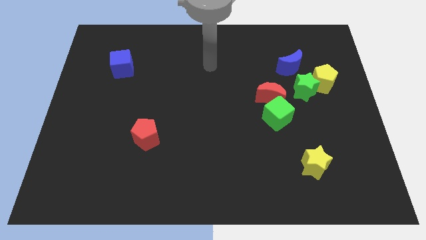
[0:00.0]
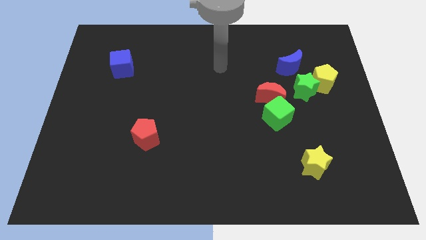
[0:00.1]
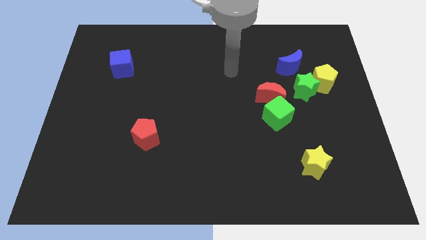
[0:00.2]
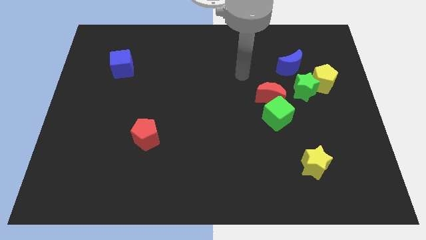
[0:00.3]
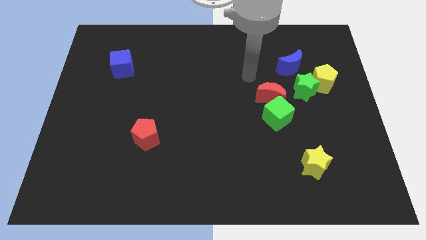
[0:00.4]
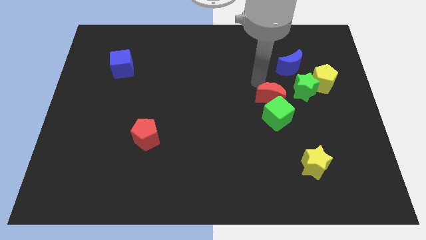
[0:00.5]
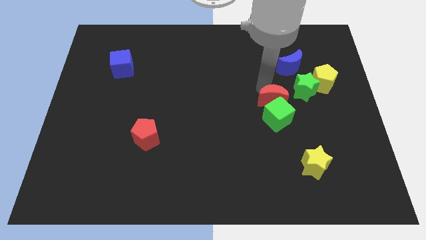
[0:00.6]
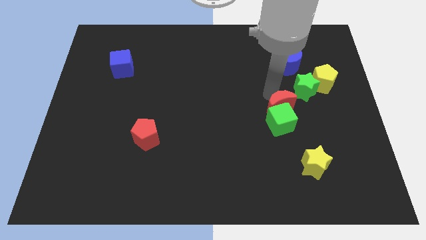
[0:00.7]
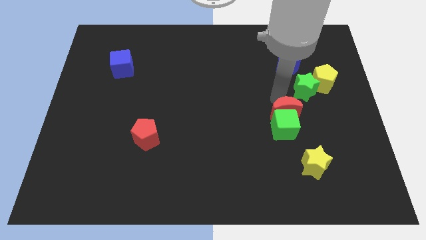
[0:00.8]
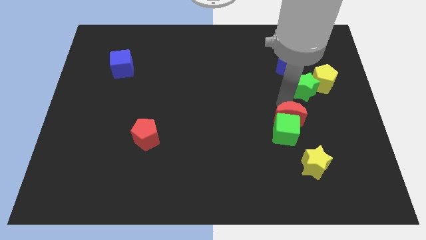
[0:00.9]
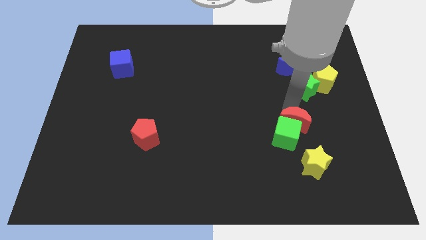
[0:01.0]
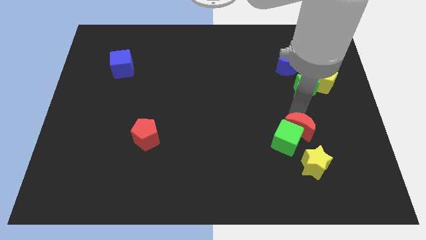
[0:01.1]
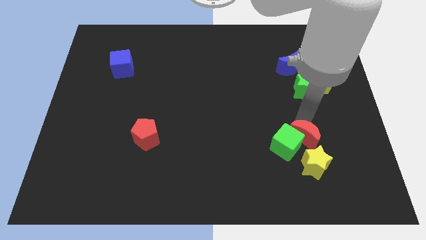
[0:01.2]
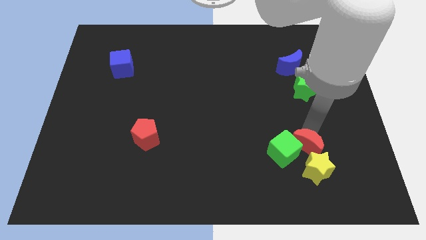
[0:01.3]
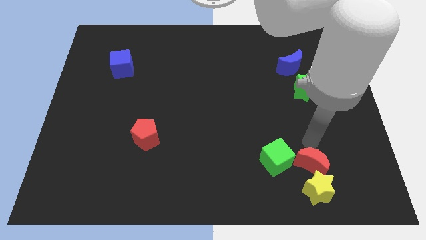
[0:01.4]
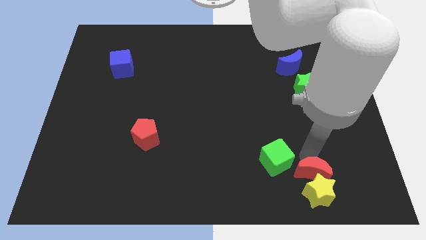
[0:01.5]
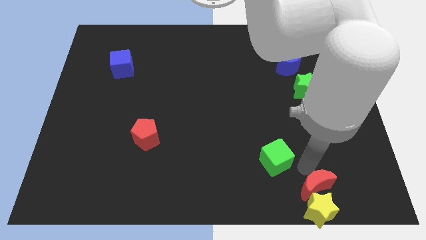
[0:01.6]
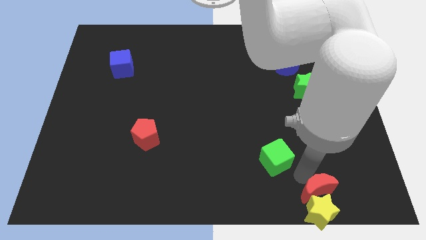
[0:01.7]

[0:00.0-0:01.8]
separate the green cube from the red moon

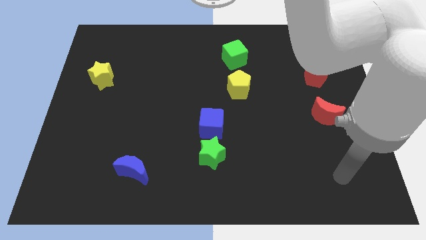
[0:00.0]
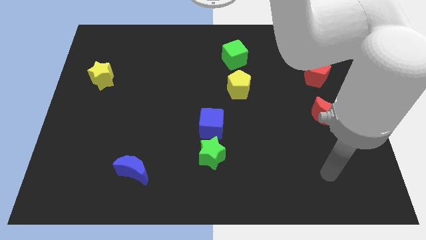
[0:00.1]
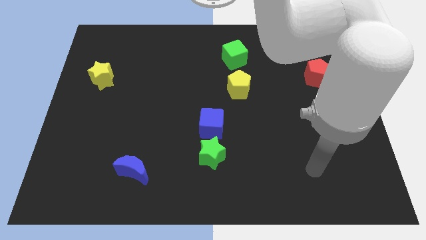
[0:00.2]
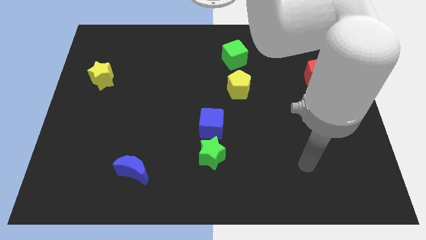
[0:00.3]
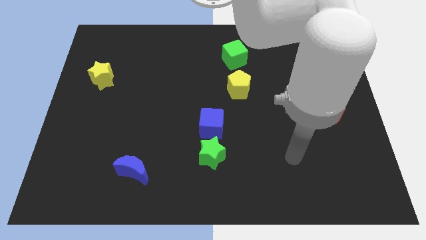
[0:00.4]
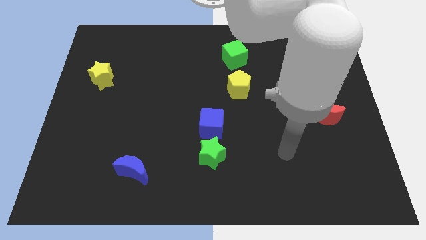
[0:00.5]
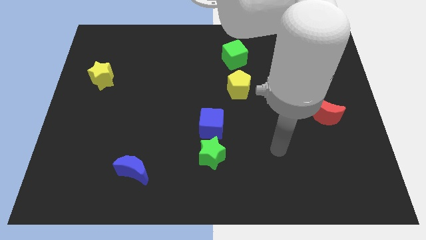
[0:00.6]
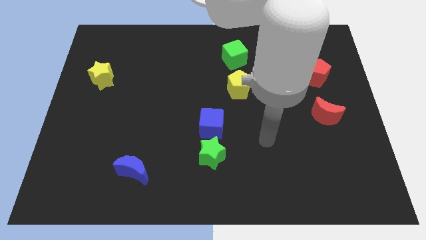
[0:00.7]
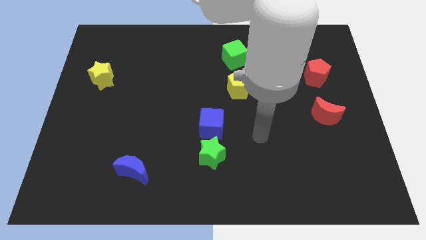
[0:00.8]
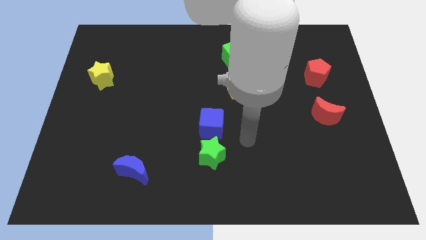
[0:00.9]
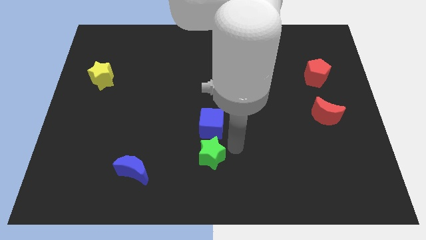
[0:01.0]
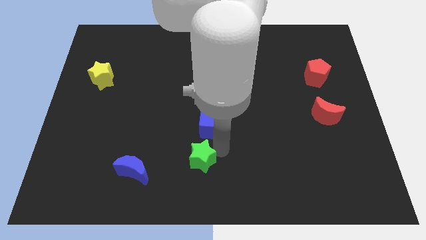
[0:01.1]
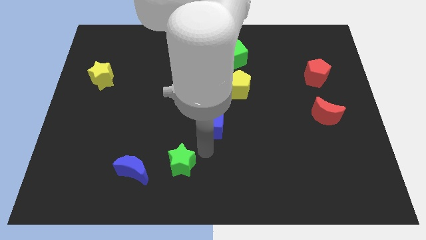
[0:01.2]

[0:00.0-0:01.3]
separate the blue cube from the green star

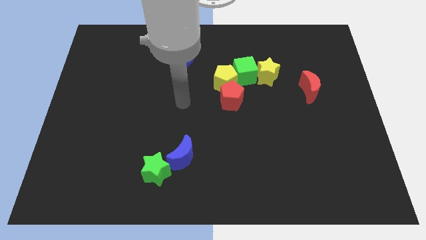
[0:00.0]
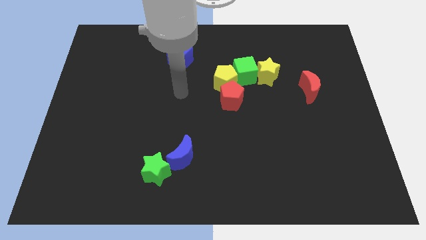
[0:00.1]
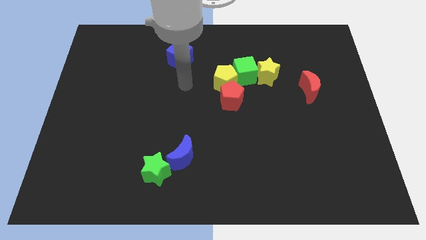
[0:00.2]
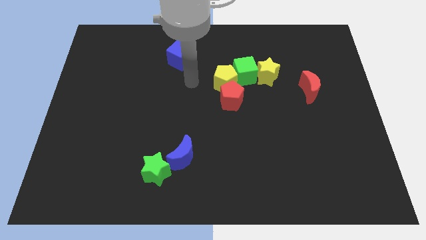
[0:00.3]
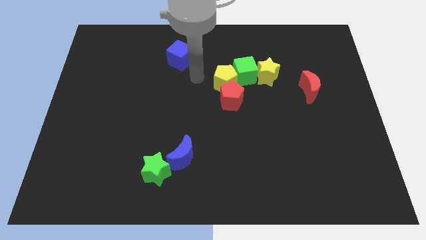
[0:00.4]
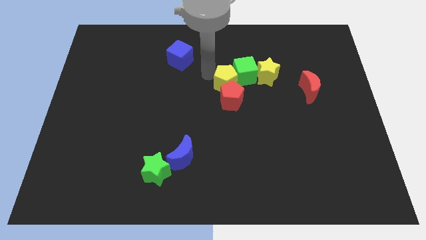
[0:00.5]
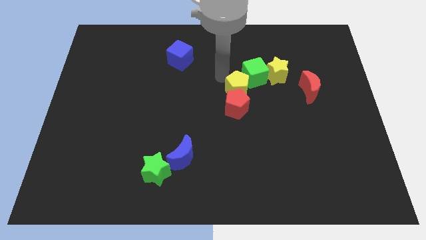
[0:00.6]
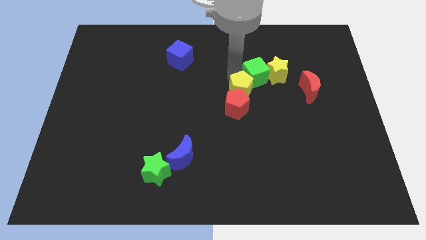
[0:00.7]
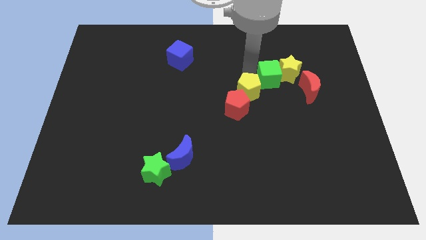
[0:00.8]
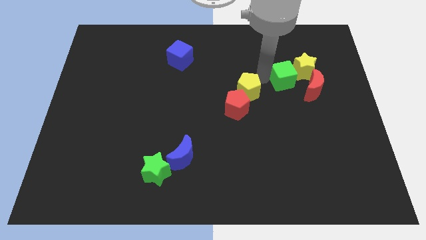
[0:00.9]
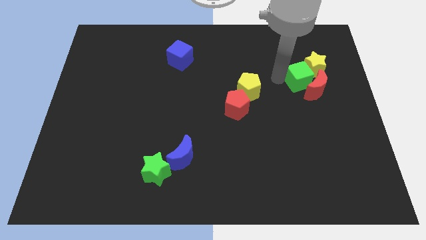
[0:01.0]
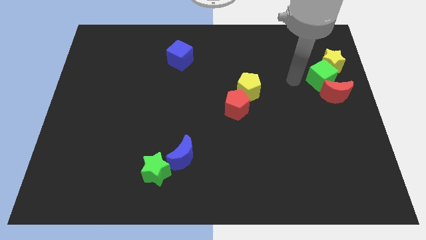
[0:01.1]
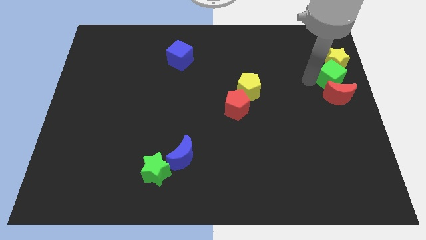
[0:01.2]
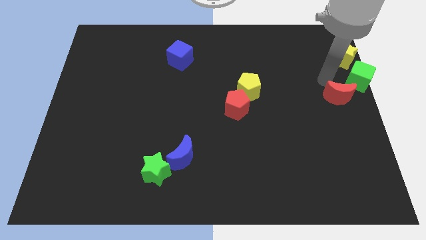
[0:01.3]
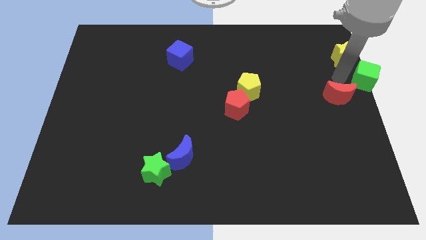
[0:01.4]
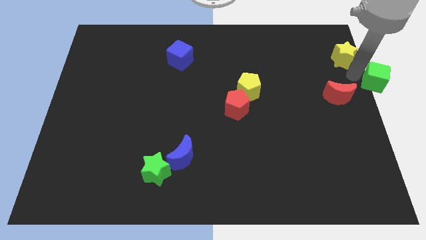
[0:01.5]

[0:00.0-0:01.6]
separate the yellow star from the green cube

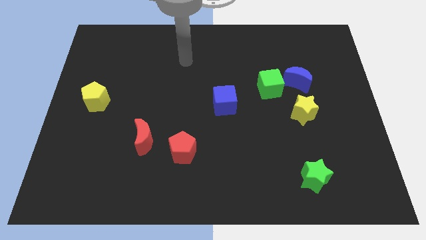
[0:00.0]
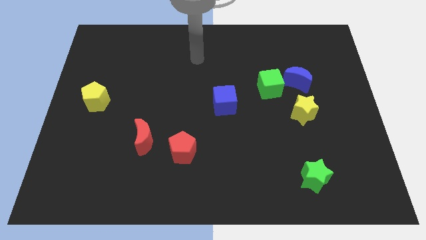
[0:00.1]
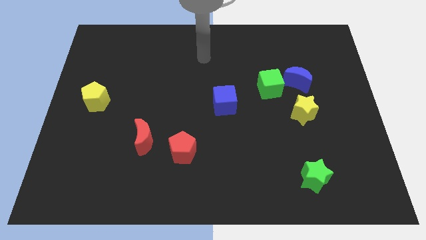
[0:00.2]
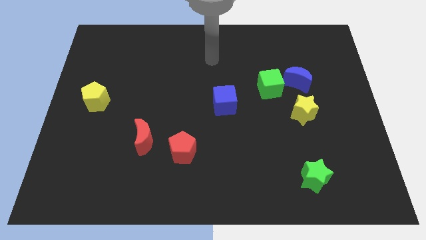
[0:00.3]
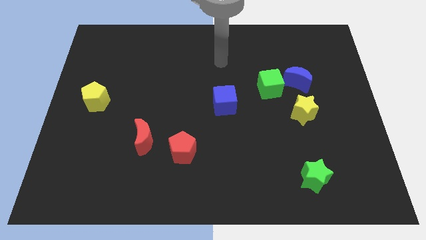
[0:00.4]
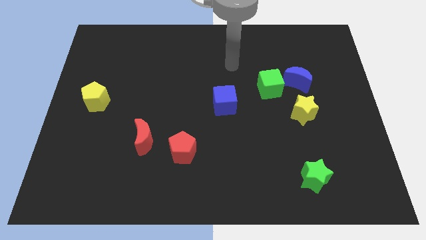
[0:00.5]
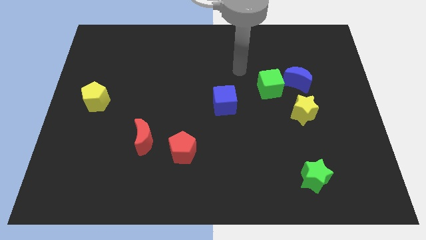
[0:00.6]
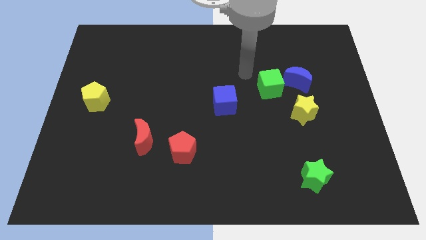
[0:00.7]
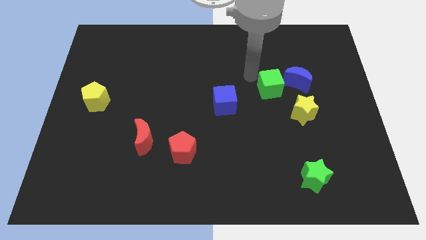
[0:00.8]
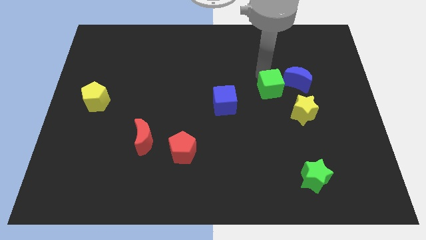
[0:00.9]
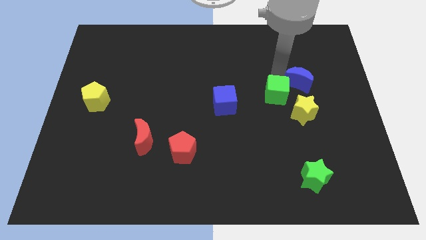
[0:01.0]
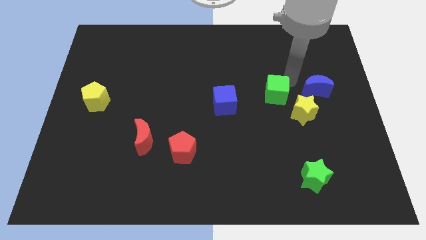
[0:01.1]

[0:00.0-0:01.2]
move the green cube away from the blue moon

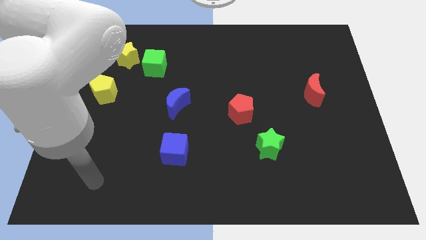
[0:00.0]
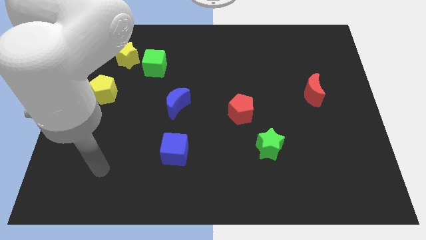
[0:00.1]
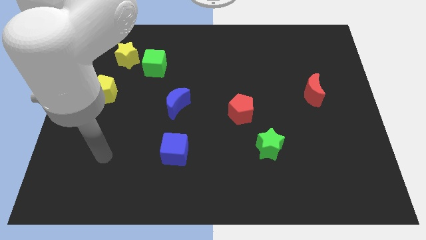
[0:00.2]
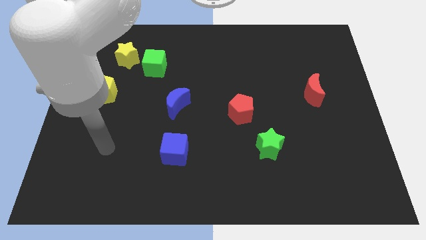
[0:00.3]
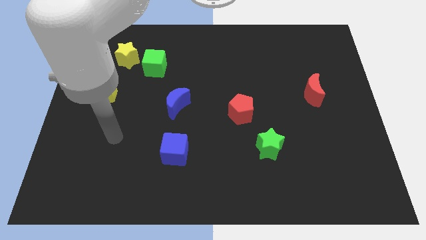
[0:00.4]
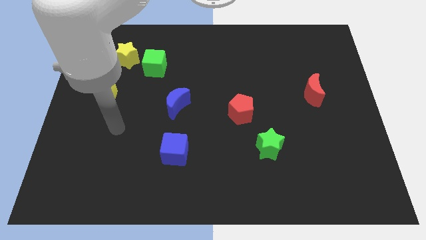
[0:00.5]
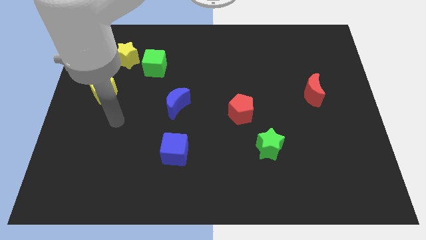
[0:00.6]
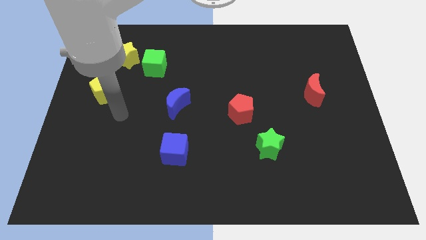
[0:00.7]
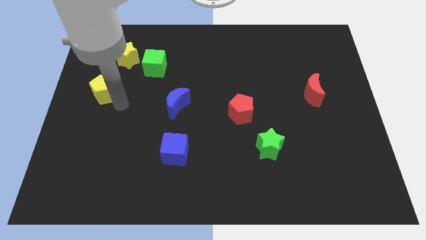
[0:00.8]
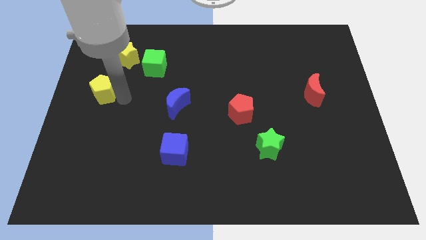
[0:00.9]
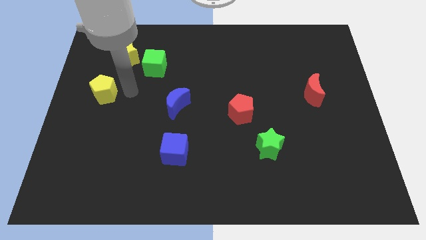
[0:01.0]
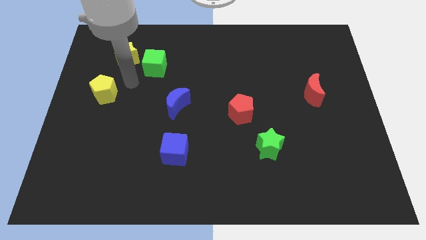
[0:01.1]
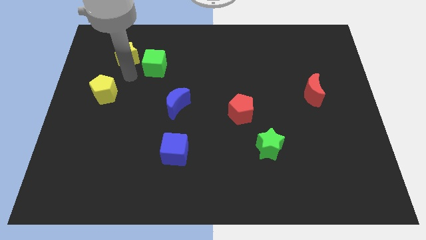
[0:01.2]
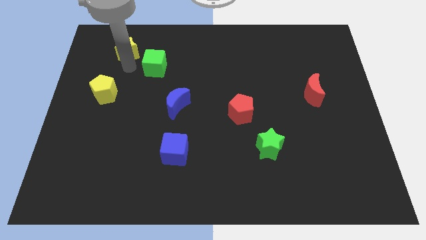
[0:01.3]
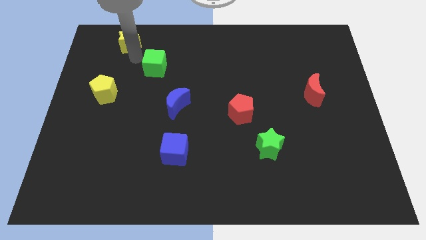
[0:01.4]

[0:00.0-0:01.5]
pull the green cube apart from the yellow star

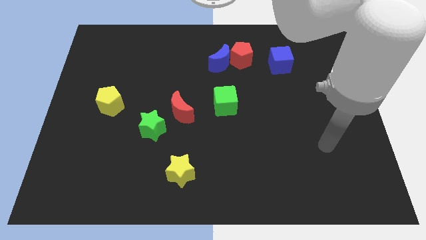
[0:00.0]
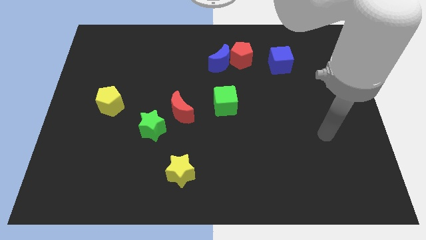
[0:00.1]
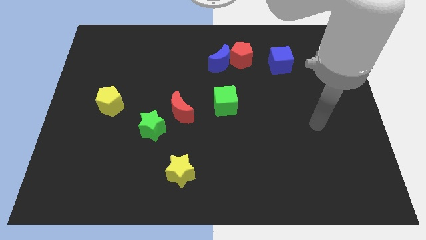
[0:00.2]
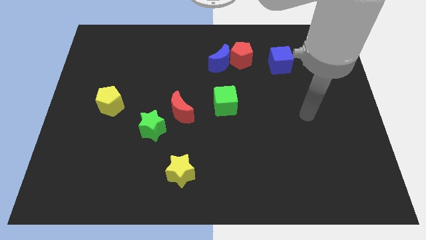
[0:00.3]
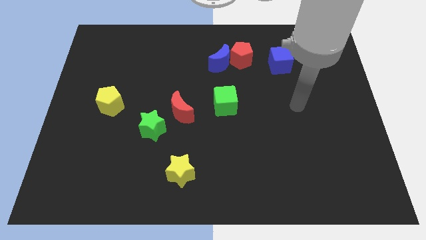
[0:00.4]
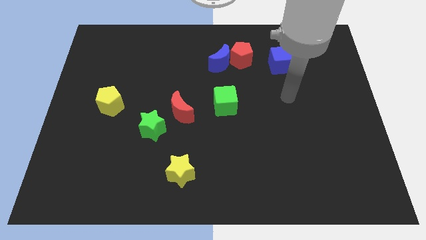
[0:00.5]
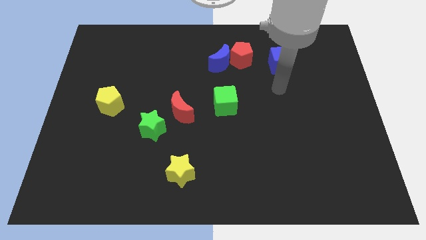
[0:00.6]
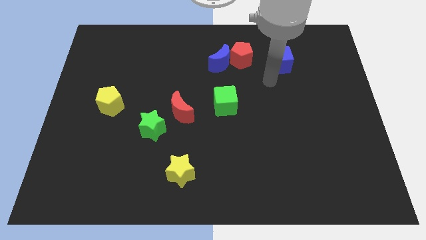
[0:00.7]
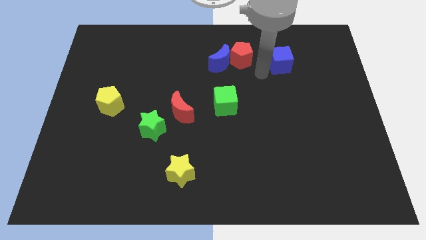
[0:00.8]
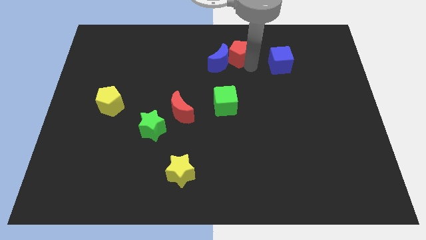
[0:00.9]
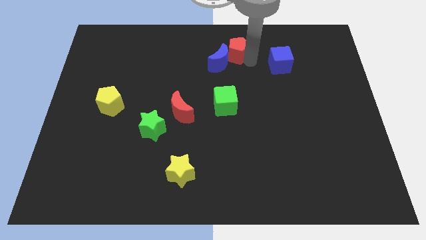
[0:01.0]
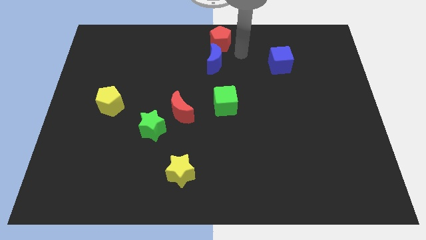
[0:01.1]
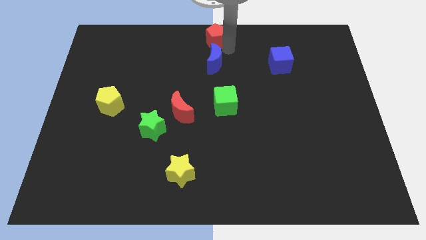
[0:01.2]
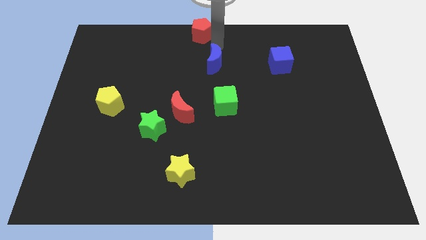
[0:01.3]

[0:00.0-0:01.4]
separate the blue moon from the red pentagon

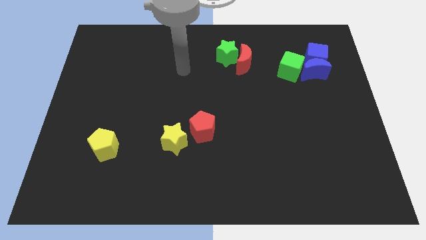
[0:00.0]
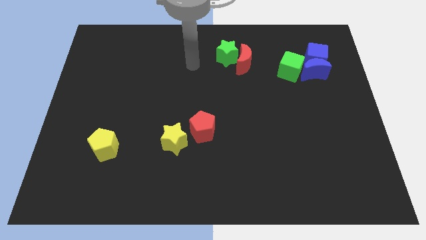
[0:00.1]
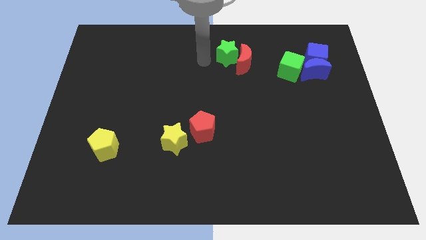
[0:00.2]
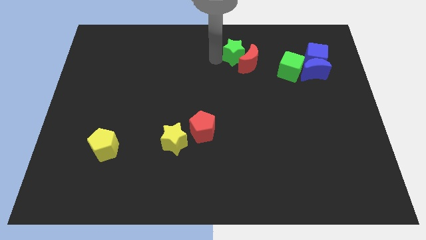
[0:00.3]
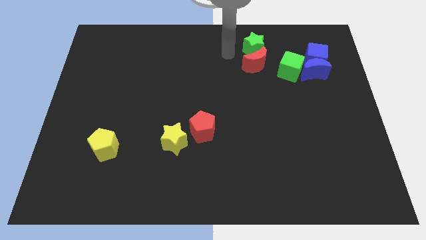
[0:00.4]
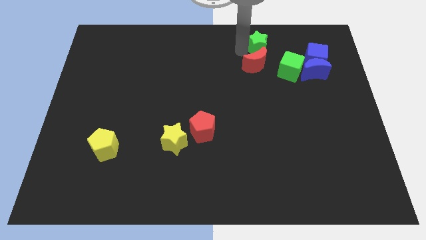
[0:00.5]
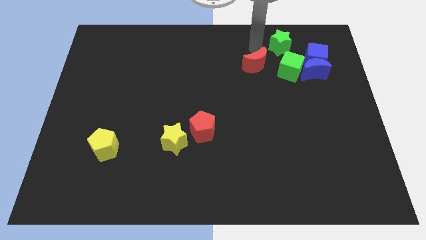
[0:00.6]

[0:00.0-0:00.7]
pull the red moon apart from the green star
